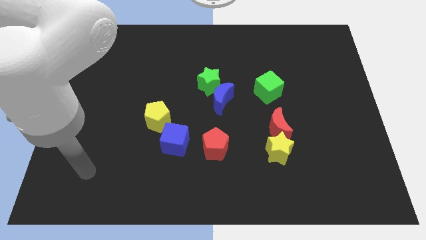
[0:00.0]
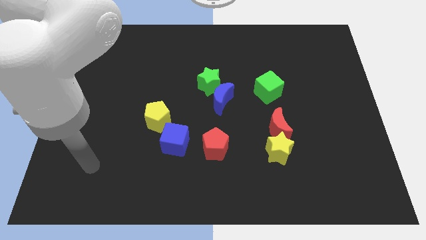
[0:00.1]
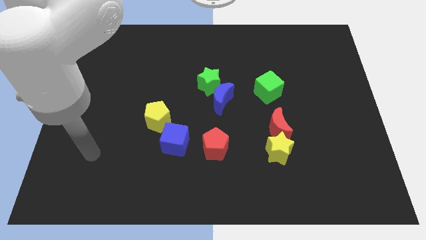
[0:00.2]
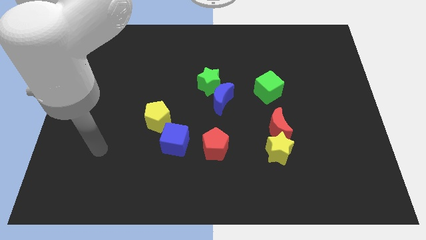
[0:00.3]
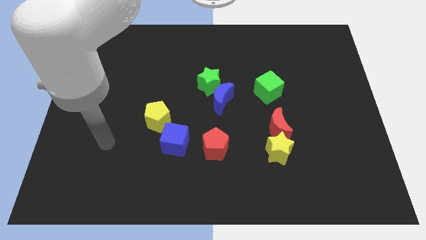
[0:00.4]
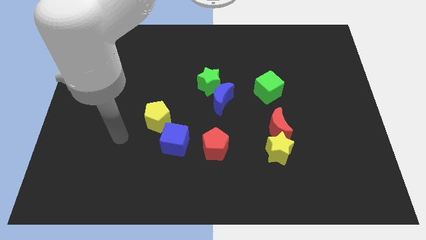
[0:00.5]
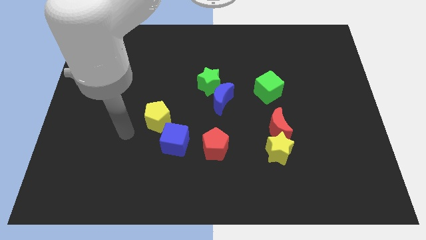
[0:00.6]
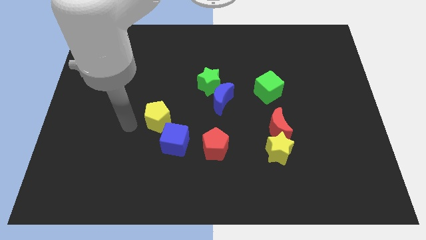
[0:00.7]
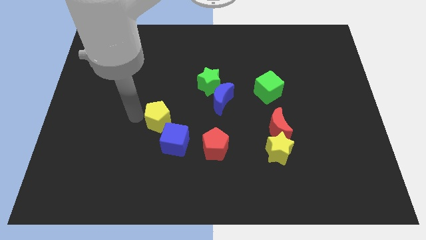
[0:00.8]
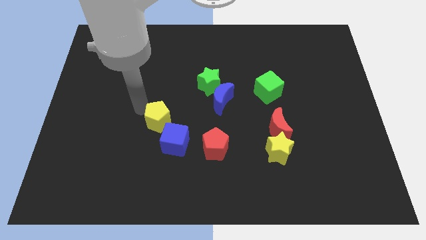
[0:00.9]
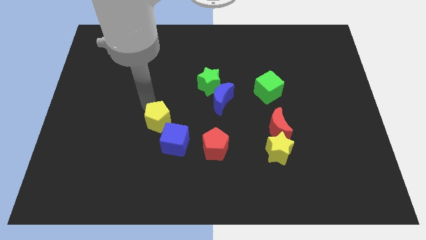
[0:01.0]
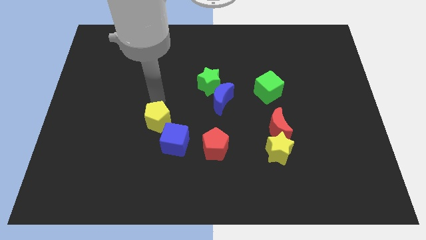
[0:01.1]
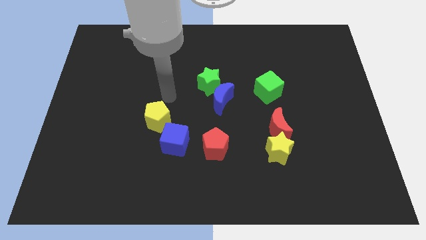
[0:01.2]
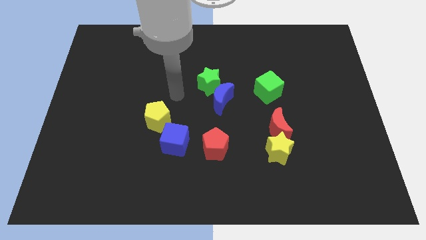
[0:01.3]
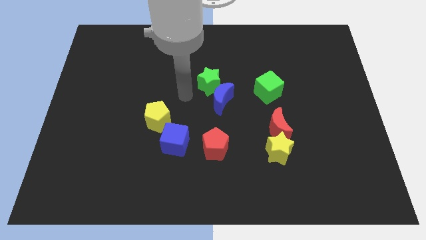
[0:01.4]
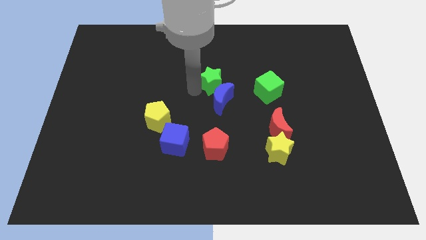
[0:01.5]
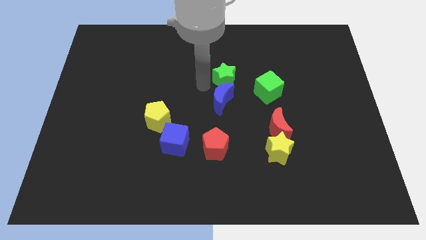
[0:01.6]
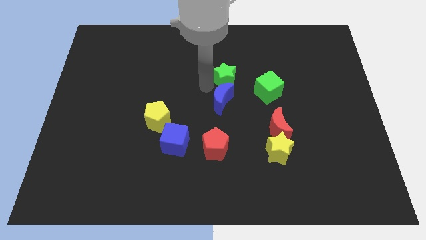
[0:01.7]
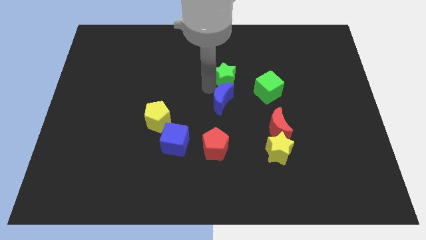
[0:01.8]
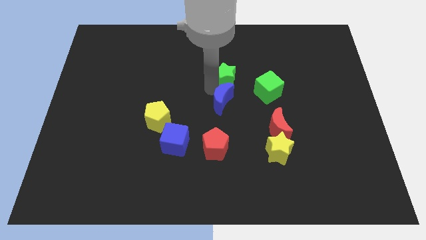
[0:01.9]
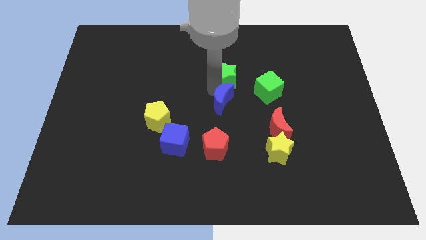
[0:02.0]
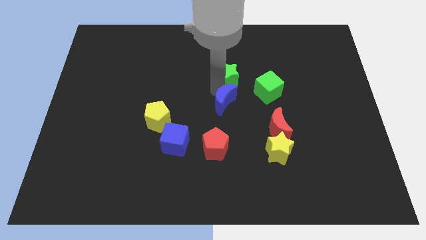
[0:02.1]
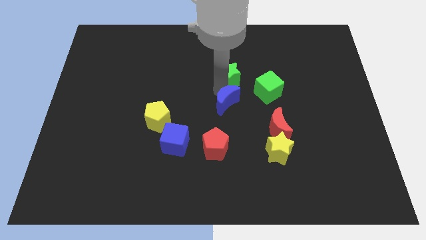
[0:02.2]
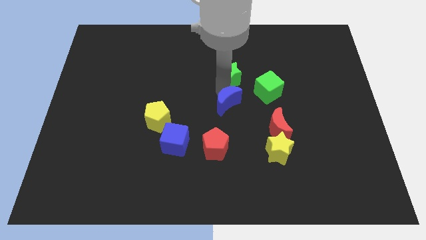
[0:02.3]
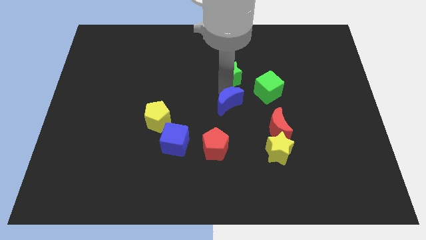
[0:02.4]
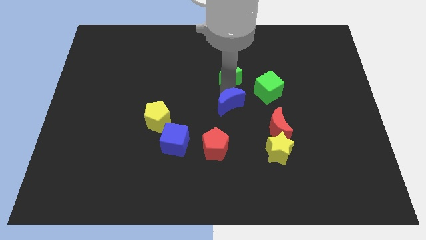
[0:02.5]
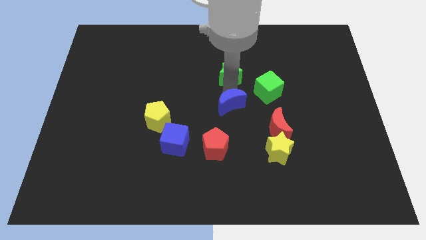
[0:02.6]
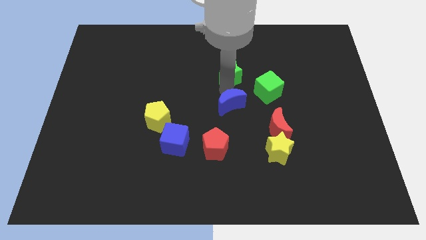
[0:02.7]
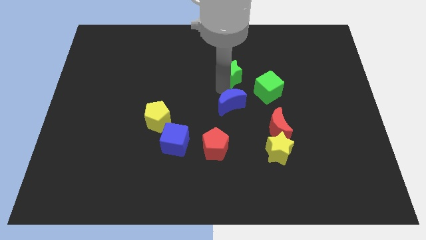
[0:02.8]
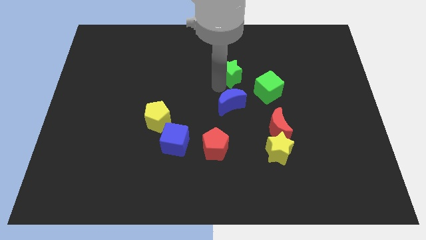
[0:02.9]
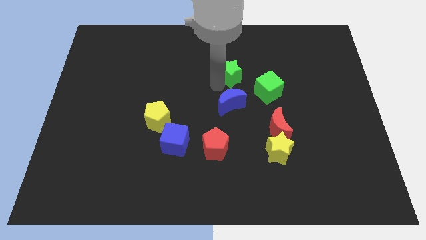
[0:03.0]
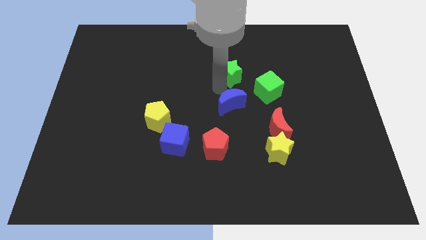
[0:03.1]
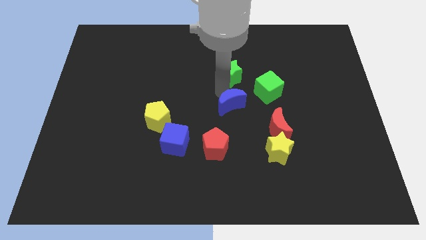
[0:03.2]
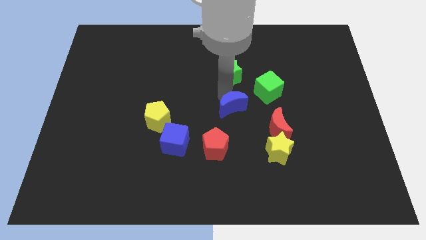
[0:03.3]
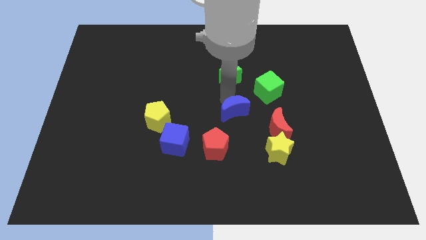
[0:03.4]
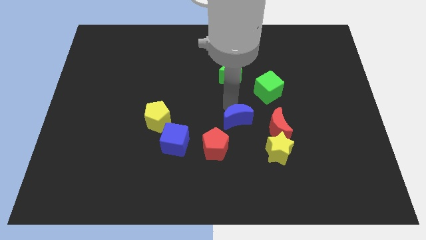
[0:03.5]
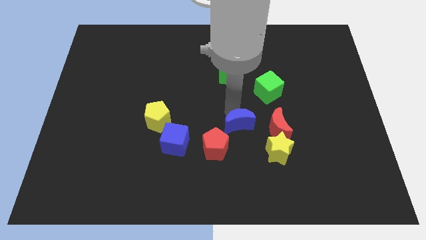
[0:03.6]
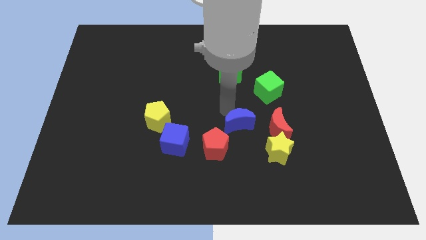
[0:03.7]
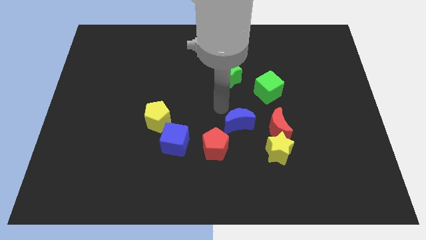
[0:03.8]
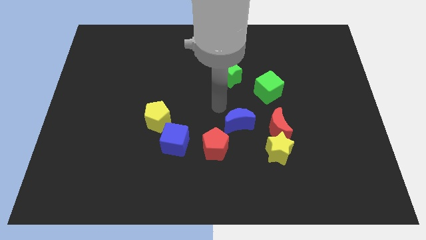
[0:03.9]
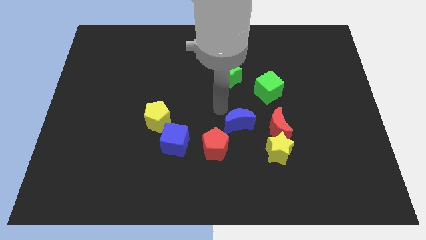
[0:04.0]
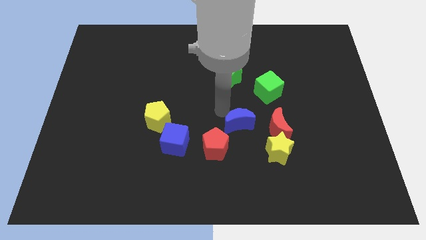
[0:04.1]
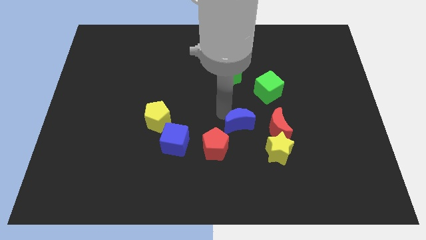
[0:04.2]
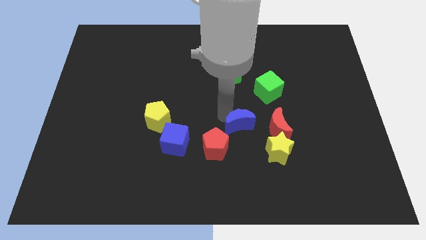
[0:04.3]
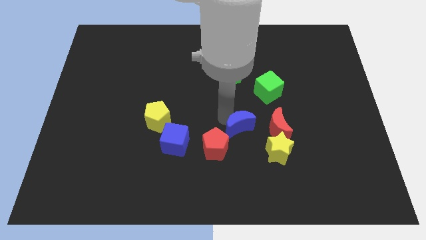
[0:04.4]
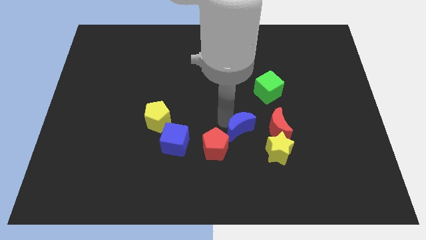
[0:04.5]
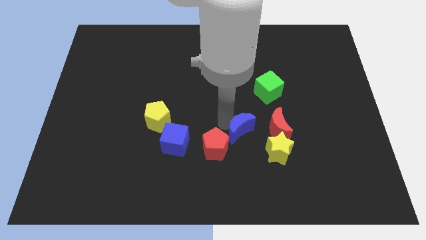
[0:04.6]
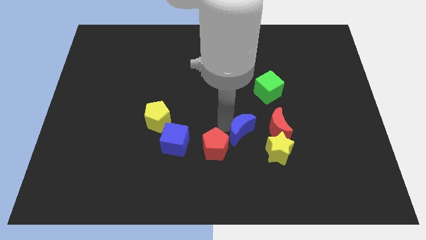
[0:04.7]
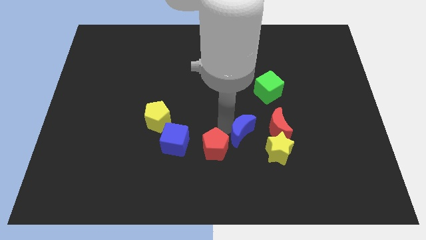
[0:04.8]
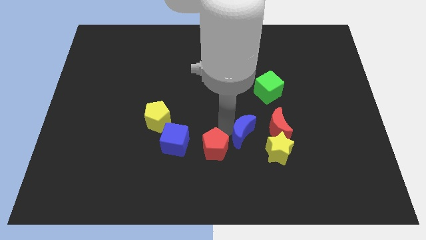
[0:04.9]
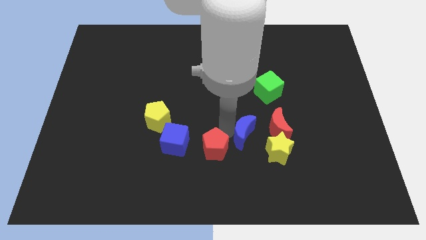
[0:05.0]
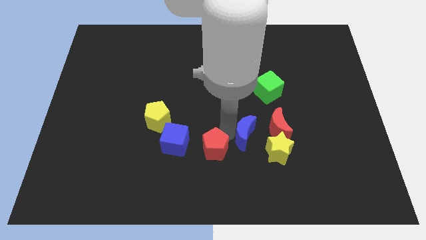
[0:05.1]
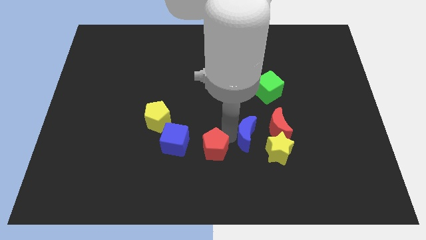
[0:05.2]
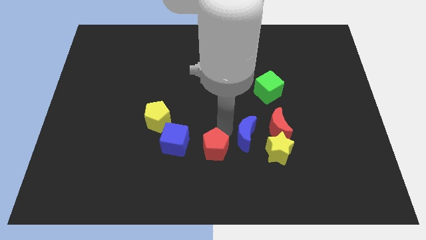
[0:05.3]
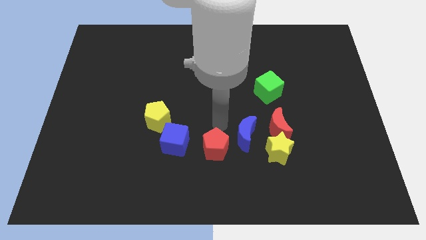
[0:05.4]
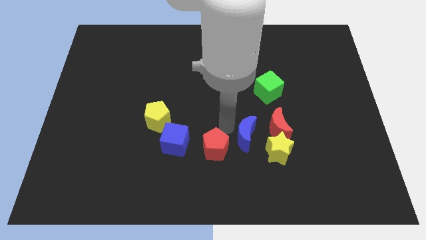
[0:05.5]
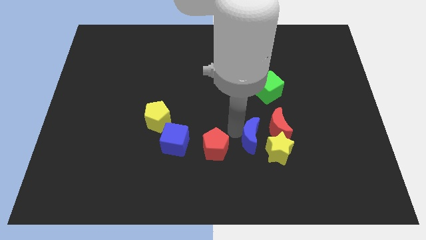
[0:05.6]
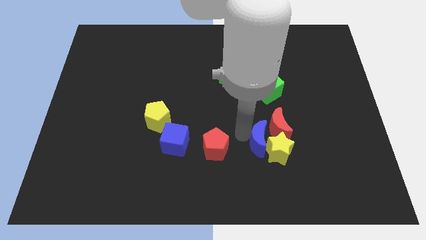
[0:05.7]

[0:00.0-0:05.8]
put the blue moon towards the yellow star
